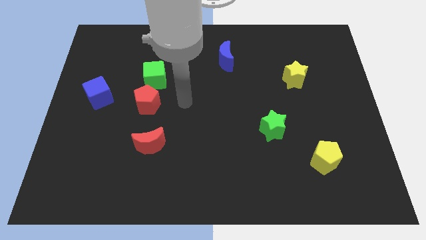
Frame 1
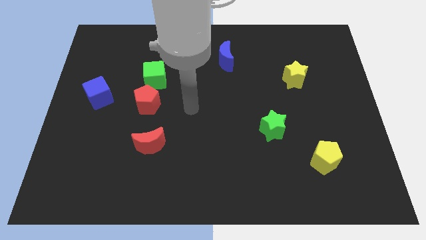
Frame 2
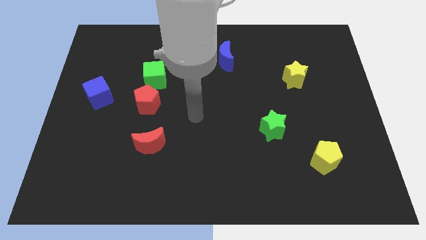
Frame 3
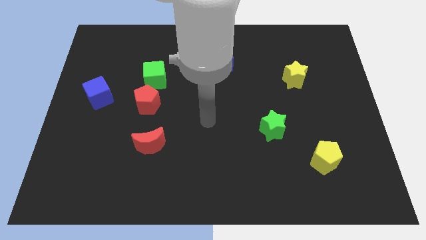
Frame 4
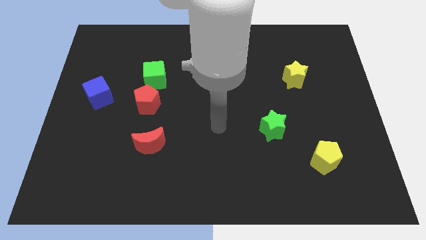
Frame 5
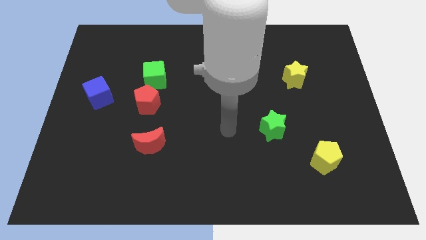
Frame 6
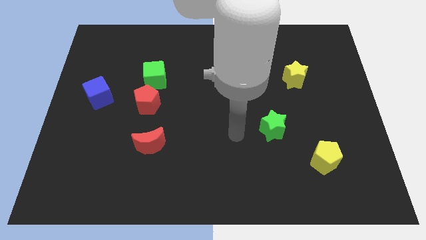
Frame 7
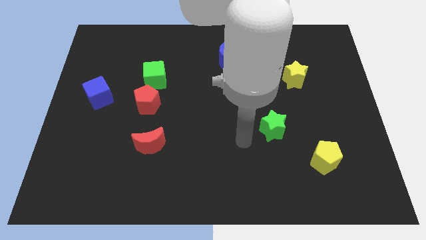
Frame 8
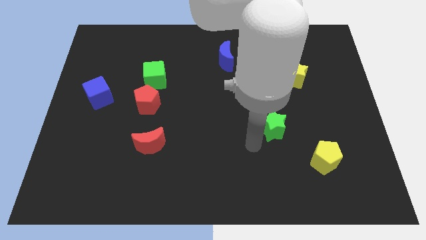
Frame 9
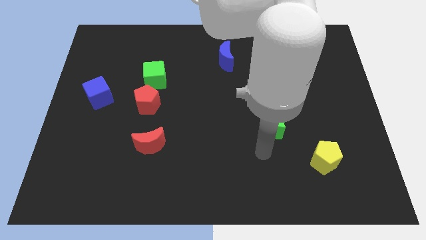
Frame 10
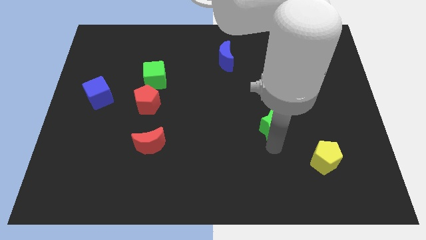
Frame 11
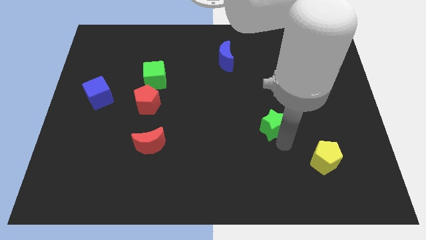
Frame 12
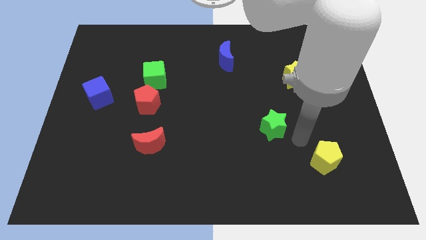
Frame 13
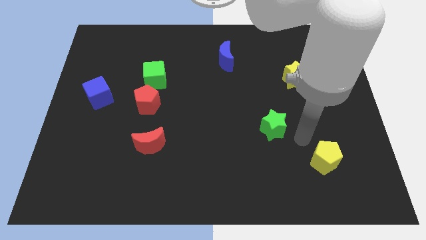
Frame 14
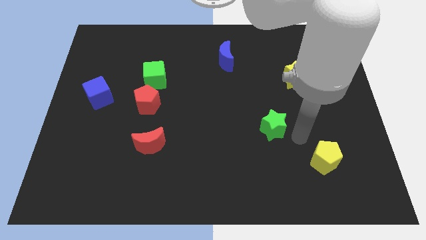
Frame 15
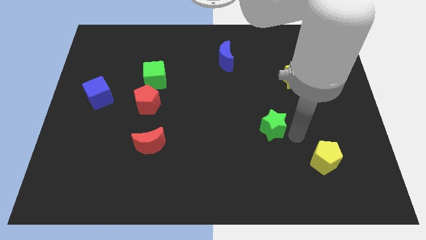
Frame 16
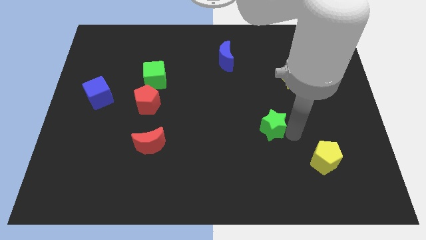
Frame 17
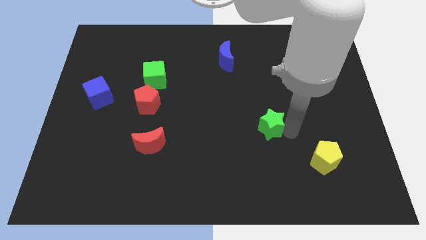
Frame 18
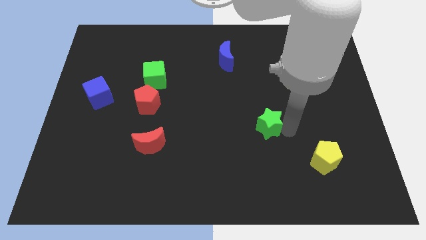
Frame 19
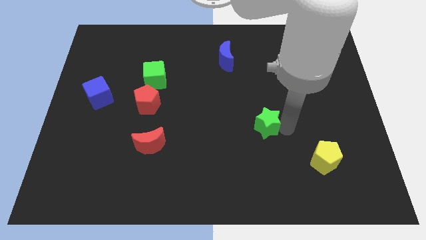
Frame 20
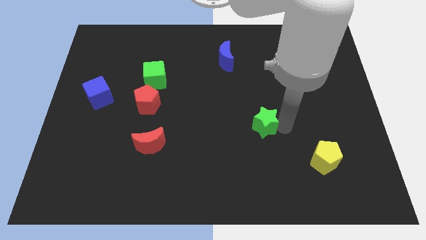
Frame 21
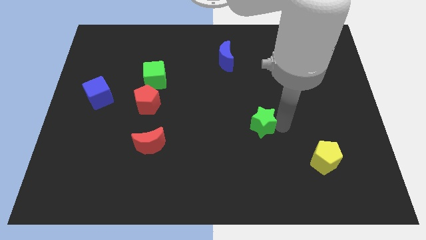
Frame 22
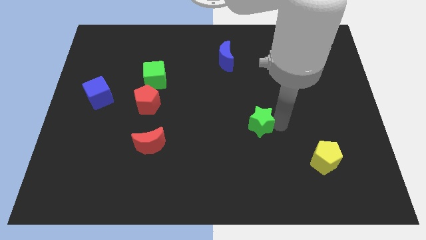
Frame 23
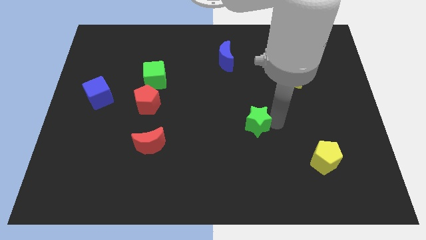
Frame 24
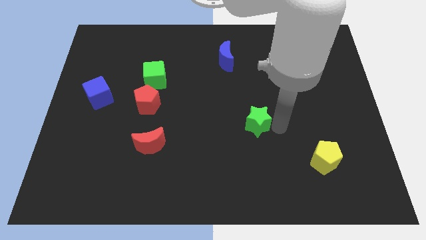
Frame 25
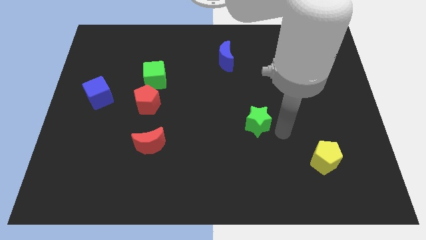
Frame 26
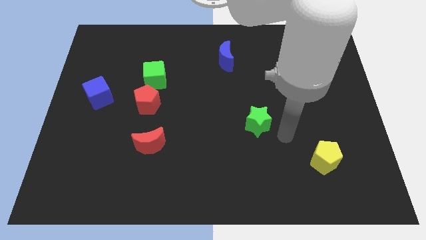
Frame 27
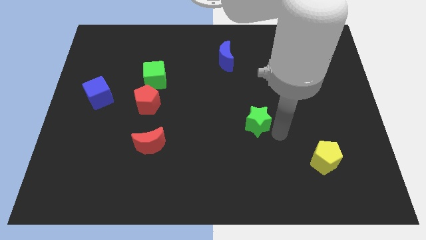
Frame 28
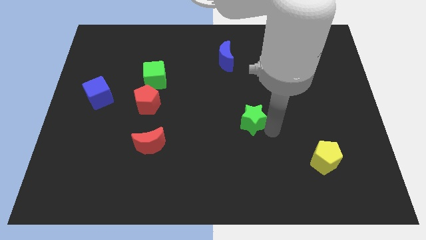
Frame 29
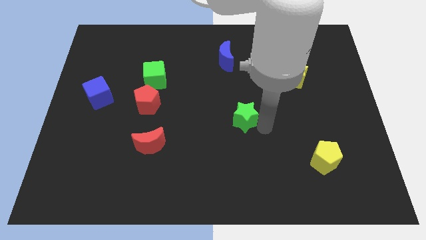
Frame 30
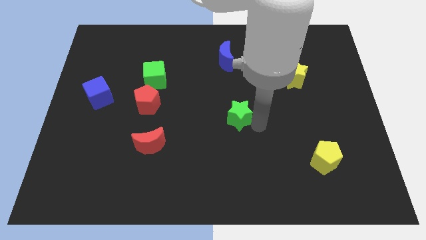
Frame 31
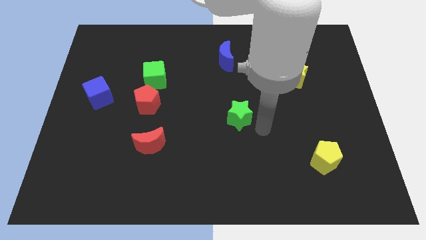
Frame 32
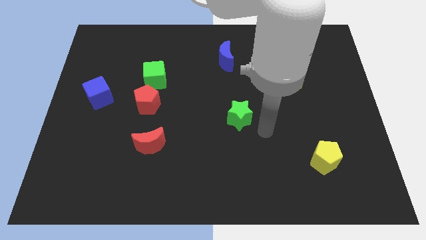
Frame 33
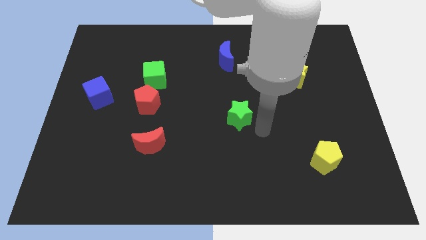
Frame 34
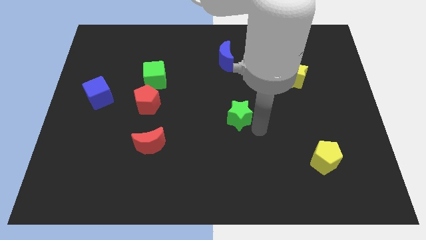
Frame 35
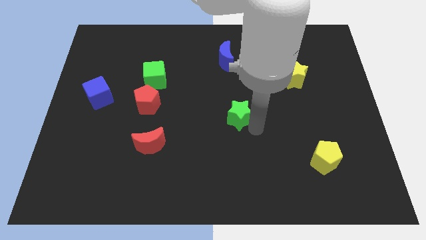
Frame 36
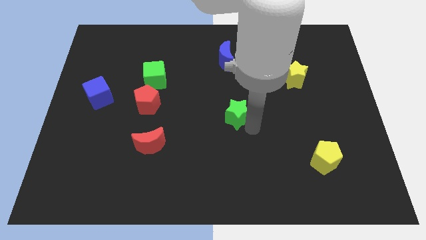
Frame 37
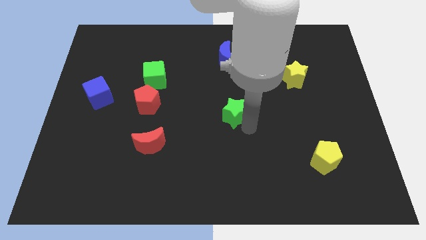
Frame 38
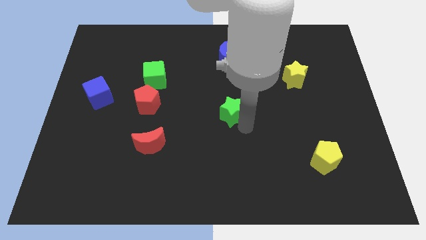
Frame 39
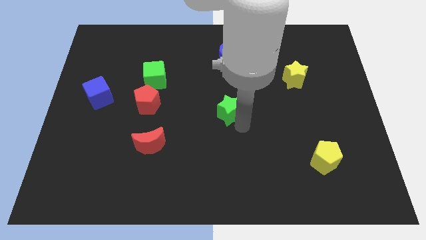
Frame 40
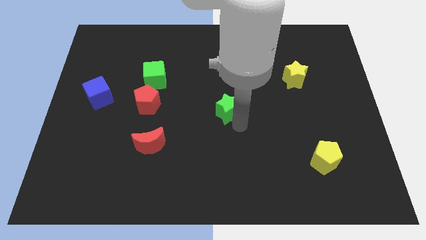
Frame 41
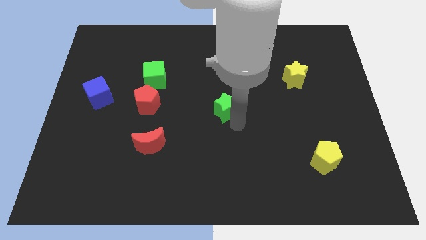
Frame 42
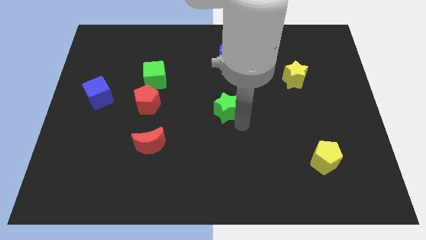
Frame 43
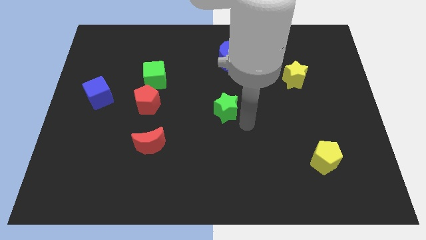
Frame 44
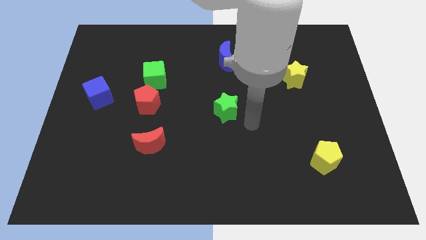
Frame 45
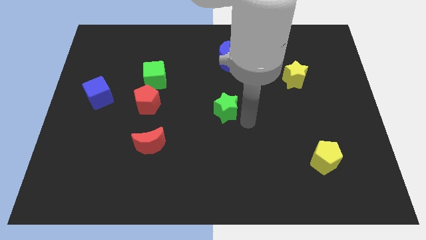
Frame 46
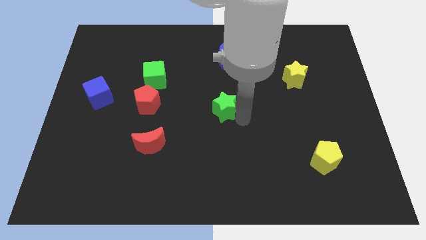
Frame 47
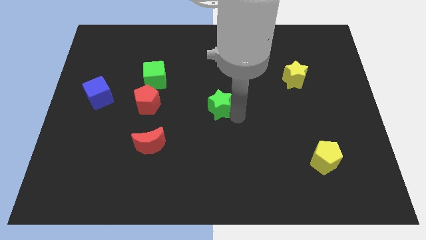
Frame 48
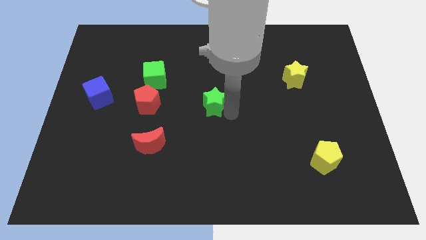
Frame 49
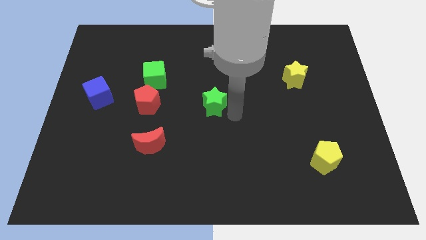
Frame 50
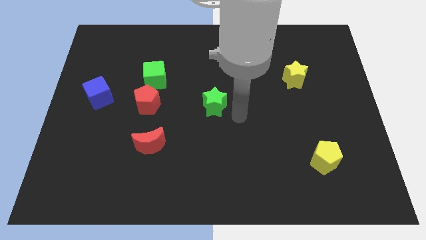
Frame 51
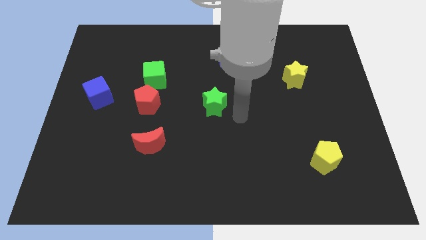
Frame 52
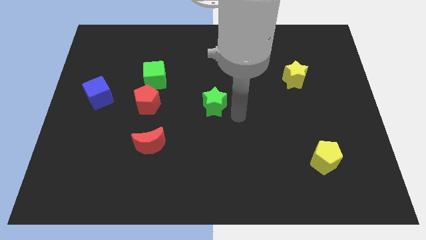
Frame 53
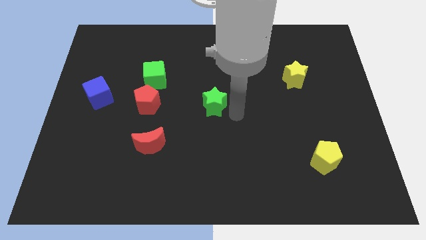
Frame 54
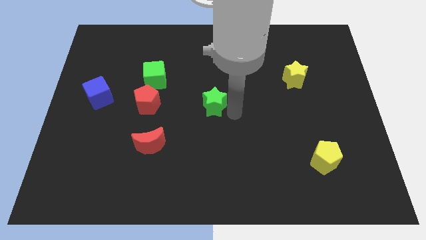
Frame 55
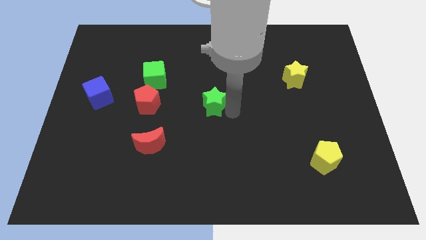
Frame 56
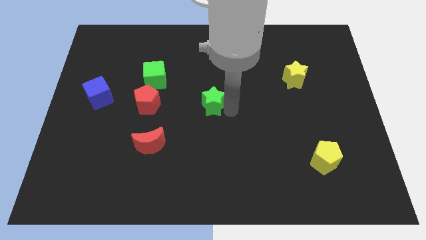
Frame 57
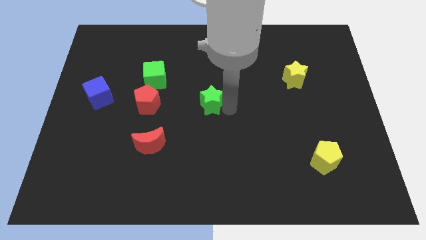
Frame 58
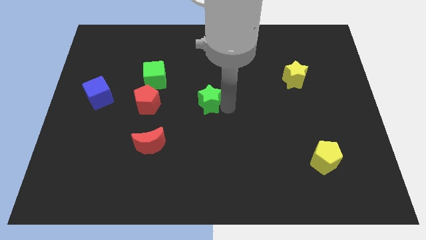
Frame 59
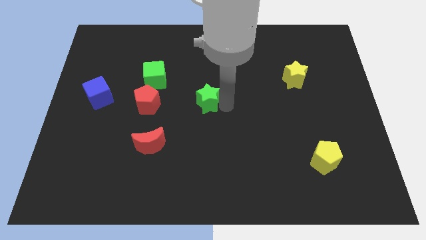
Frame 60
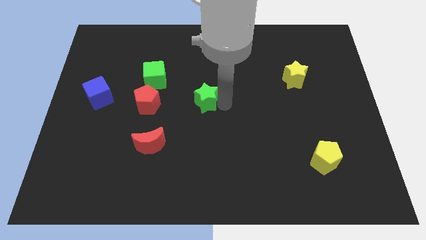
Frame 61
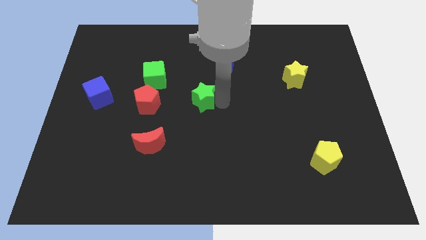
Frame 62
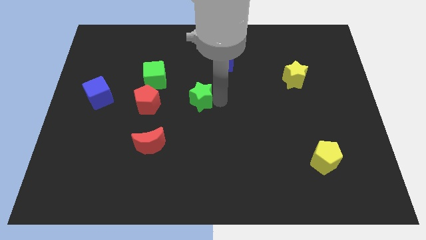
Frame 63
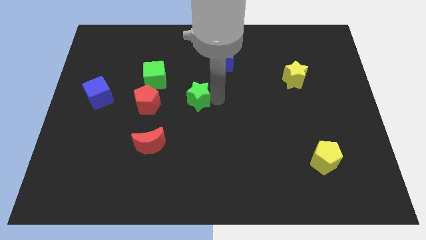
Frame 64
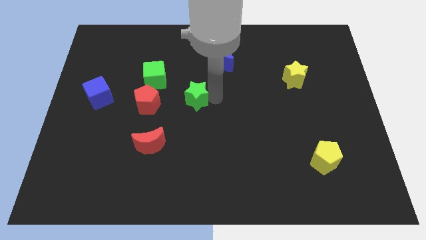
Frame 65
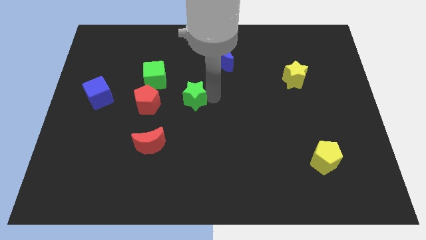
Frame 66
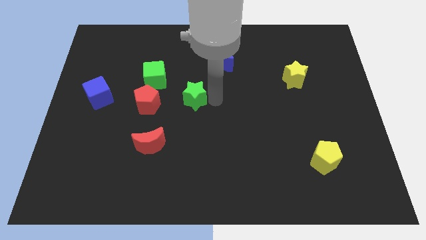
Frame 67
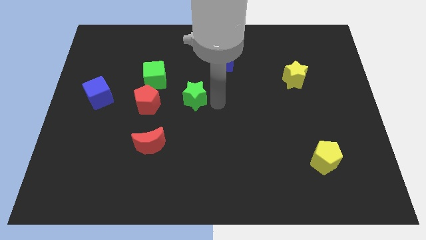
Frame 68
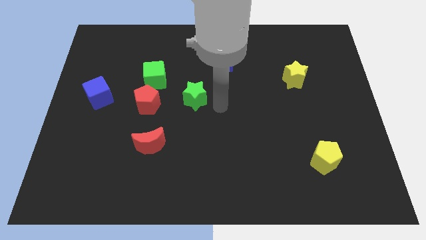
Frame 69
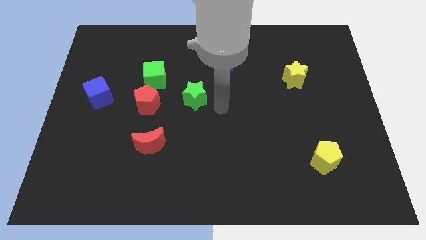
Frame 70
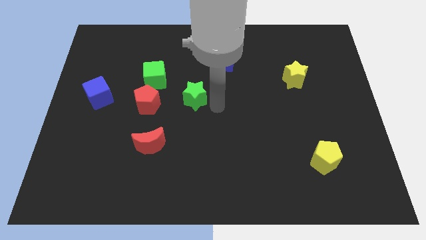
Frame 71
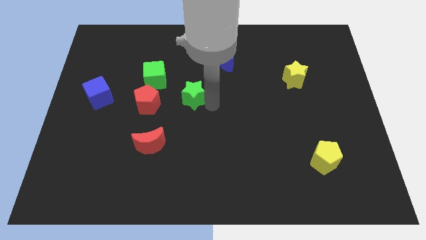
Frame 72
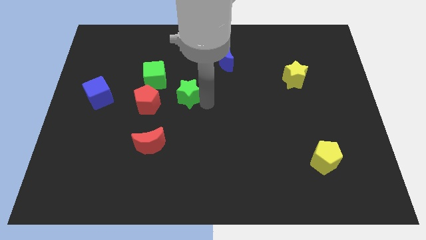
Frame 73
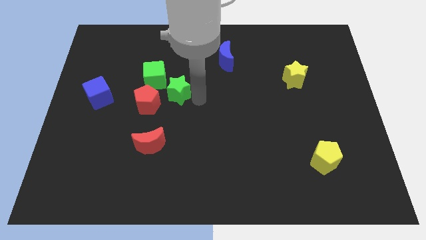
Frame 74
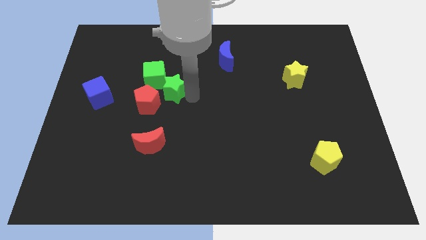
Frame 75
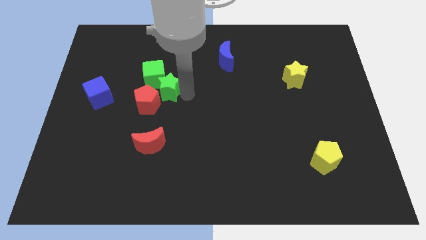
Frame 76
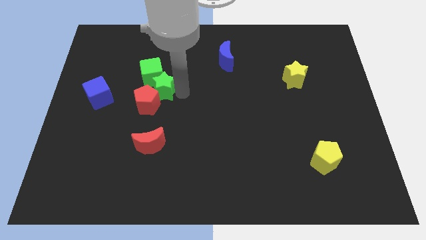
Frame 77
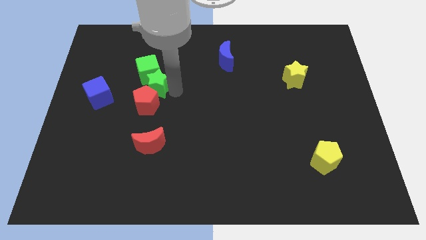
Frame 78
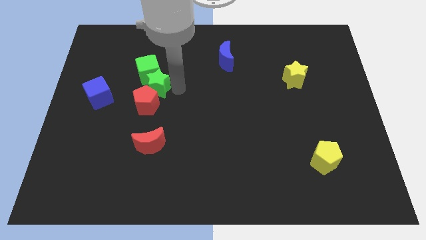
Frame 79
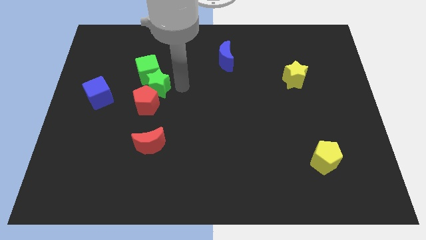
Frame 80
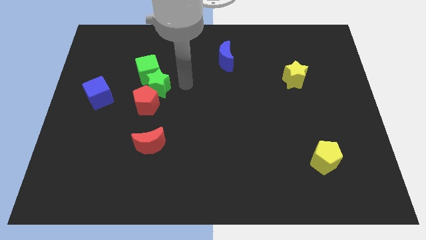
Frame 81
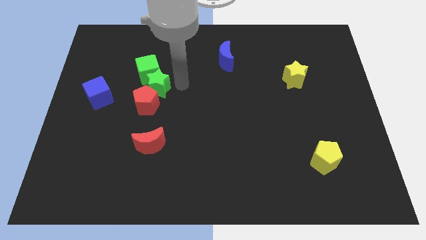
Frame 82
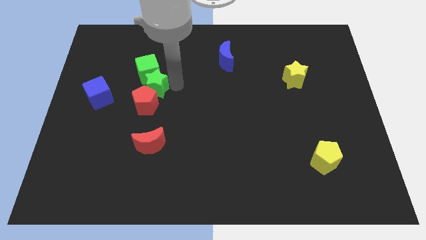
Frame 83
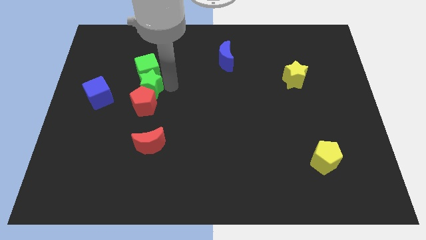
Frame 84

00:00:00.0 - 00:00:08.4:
put the green star to the top left side of the red pentagon
